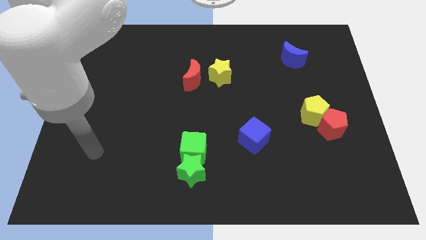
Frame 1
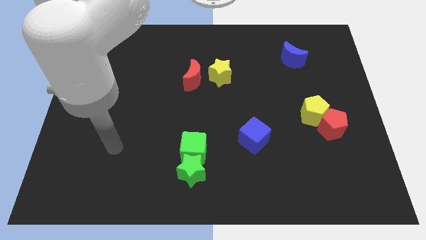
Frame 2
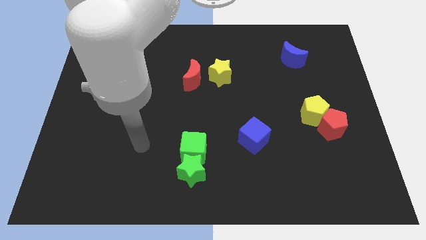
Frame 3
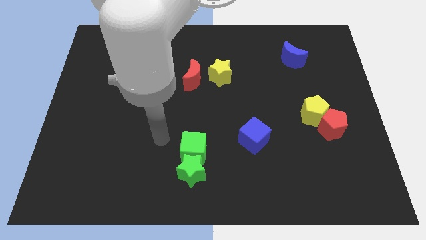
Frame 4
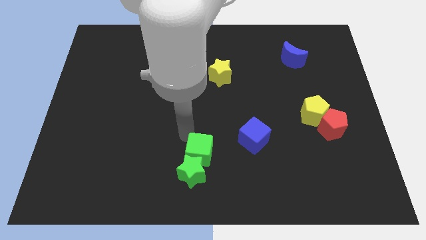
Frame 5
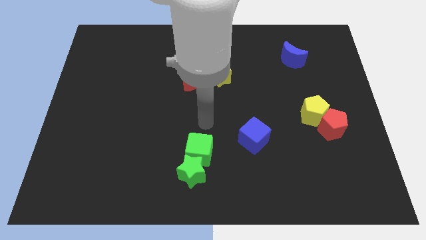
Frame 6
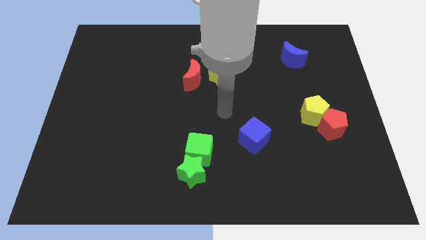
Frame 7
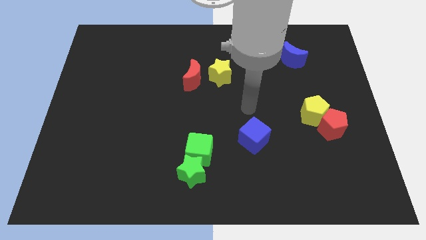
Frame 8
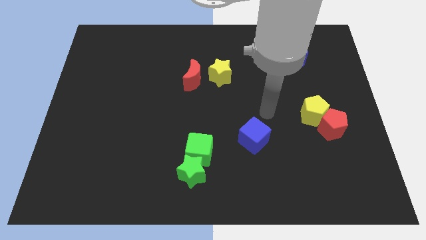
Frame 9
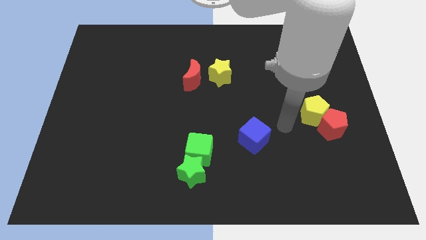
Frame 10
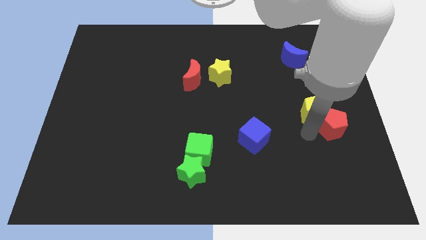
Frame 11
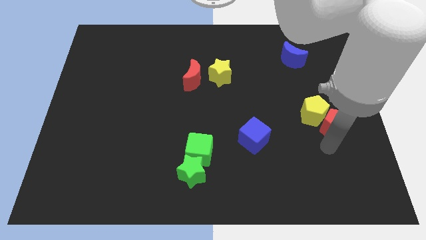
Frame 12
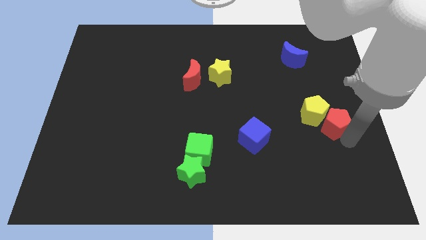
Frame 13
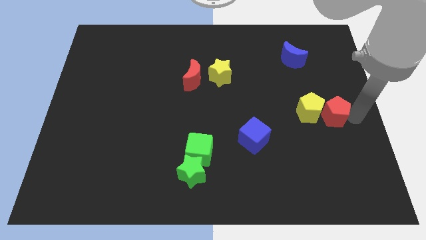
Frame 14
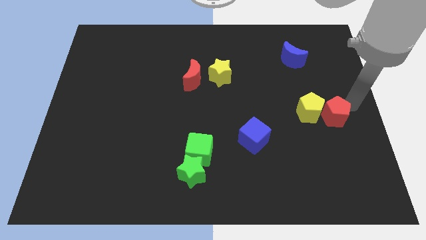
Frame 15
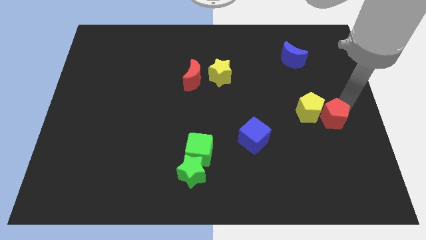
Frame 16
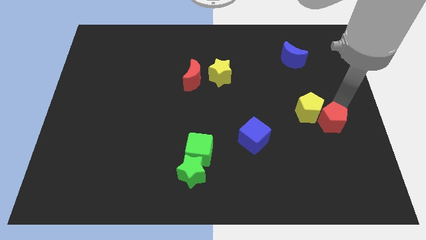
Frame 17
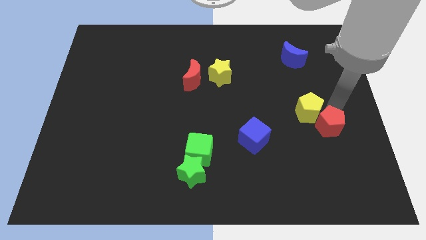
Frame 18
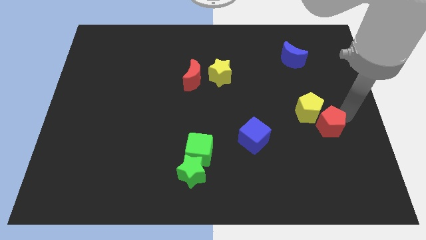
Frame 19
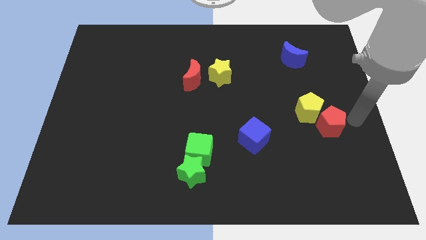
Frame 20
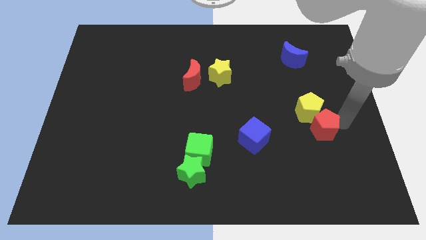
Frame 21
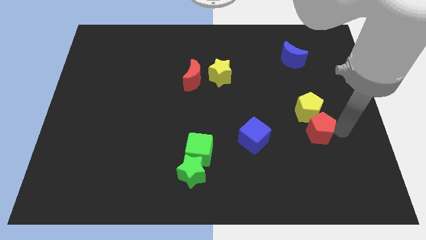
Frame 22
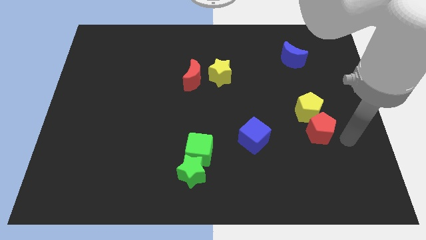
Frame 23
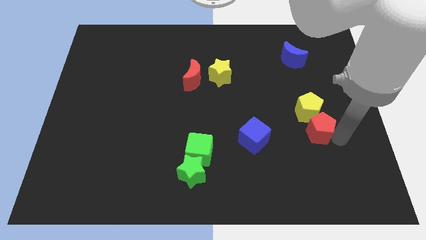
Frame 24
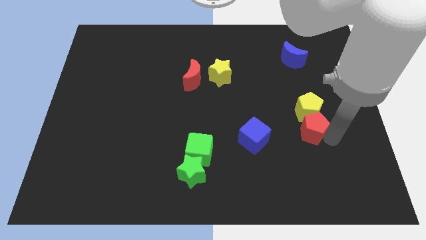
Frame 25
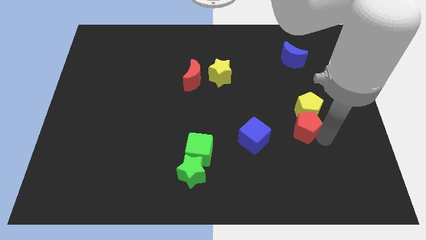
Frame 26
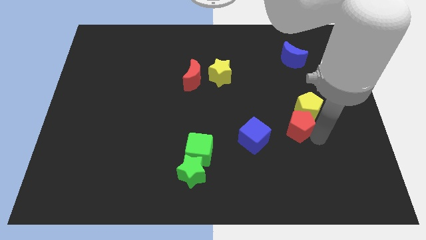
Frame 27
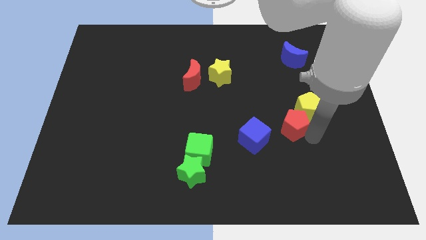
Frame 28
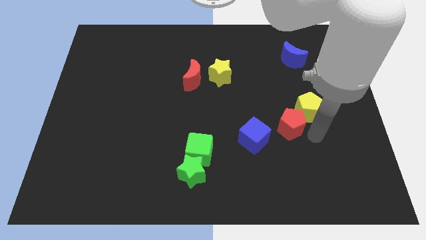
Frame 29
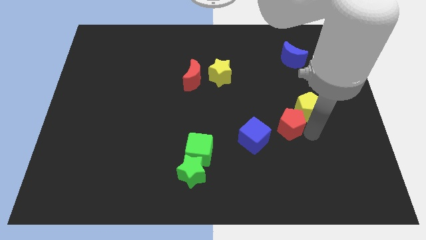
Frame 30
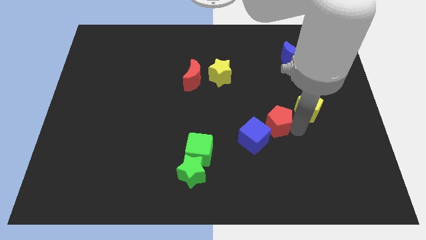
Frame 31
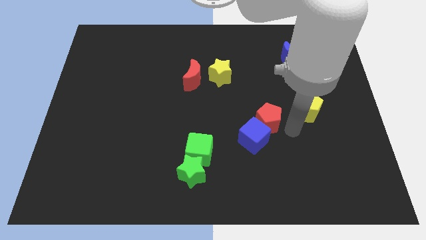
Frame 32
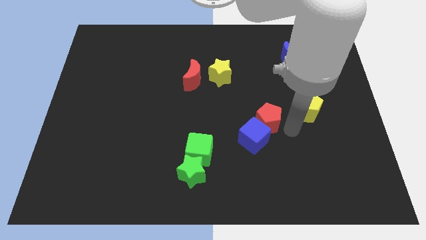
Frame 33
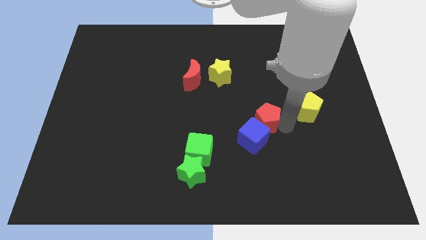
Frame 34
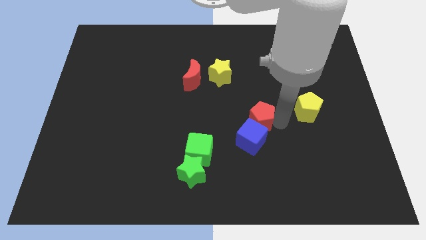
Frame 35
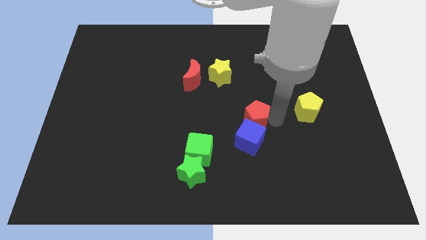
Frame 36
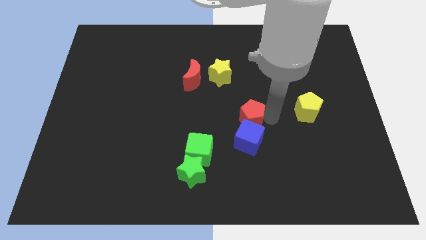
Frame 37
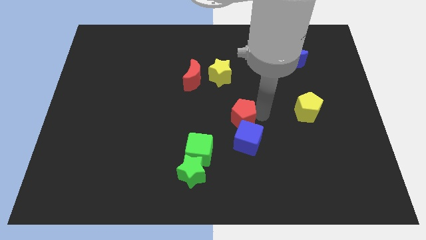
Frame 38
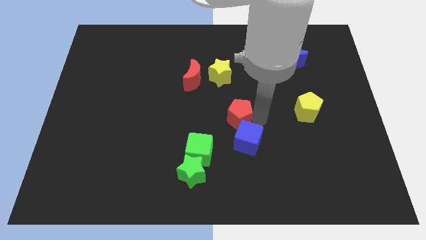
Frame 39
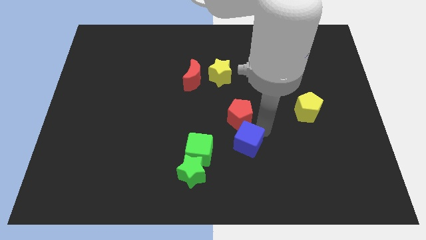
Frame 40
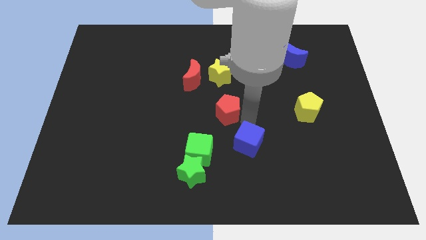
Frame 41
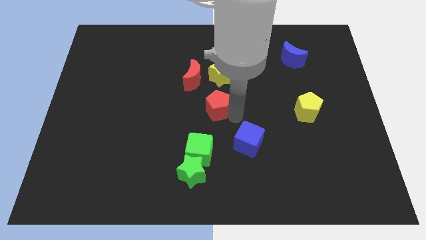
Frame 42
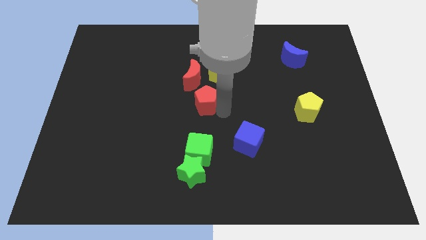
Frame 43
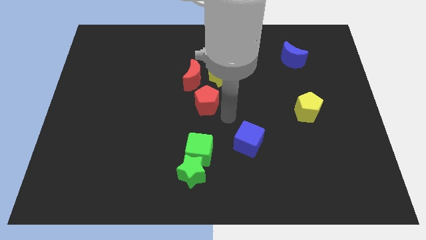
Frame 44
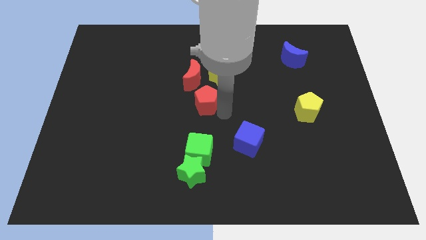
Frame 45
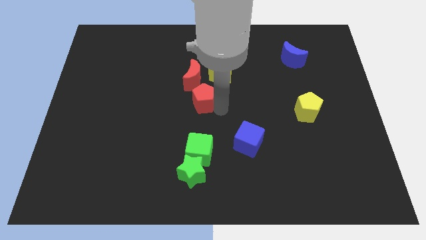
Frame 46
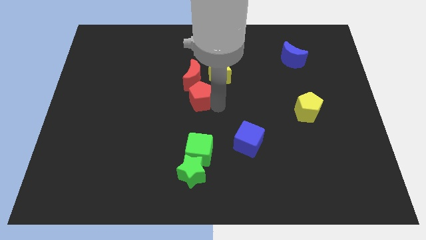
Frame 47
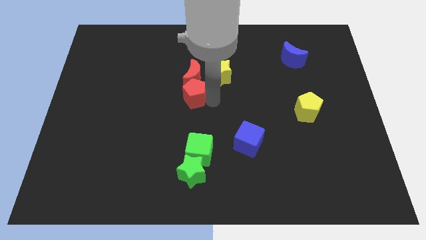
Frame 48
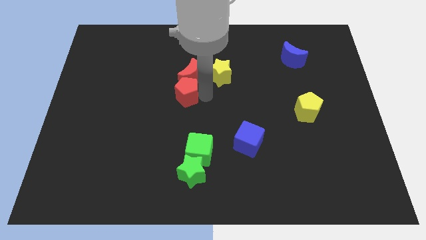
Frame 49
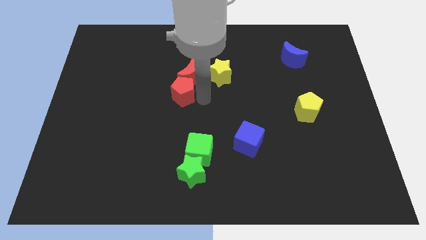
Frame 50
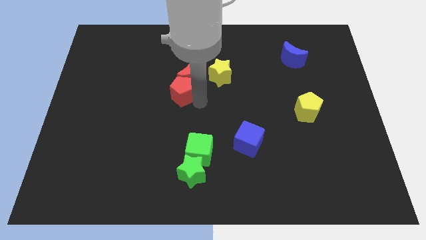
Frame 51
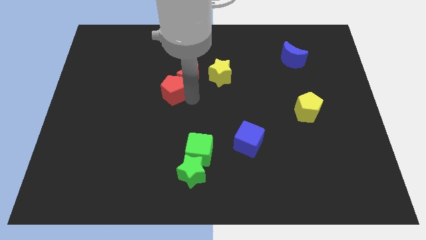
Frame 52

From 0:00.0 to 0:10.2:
slide the red pentagon to the left of the red moon

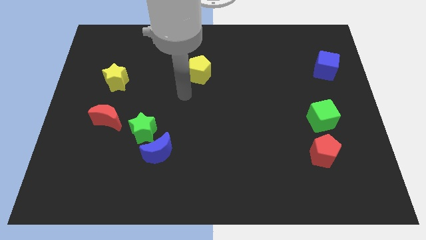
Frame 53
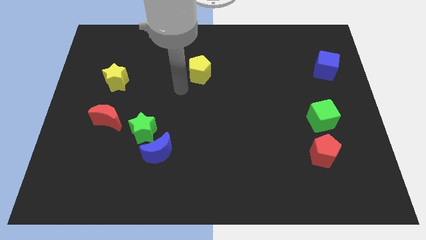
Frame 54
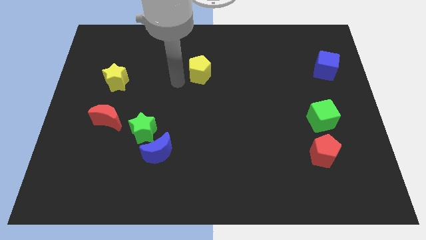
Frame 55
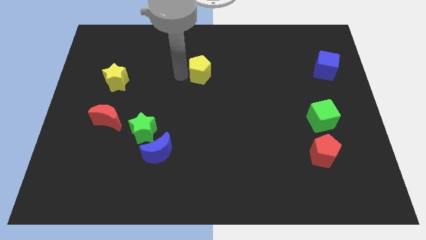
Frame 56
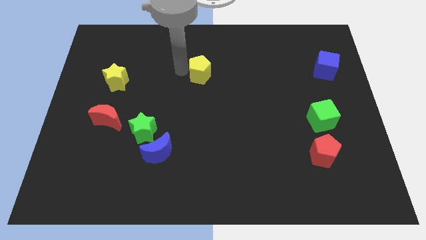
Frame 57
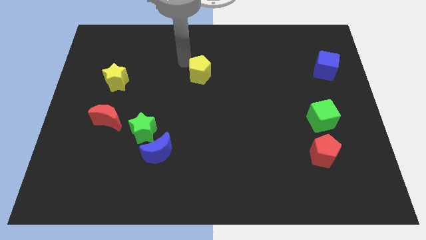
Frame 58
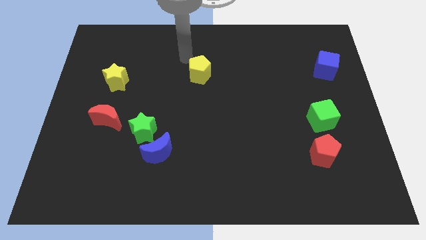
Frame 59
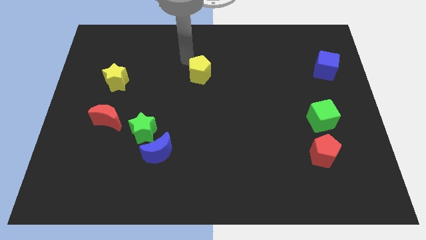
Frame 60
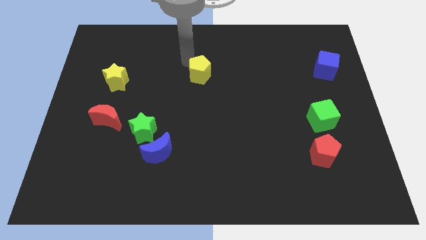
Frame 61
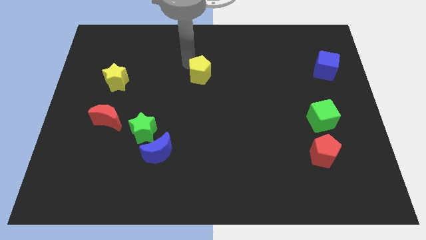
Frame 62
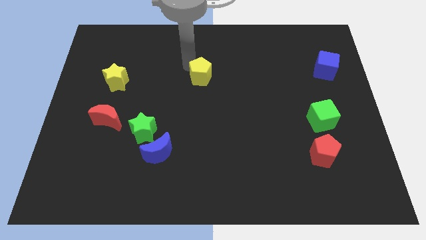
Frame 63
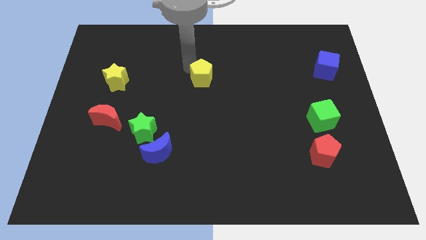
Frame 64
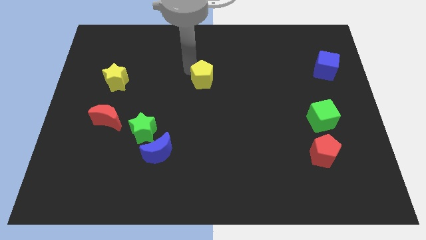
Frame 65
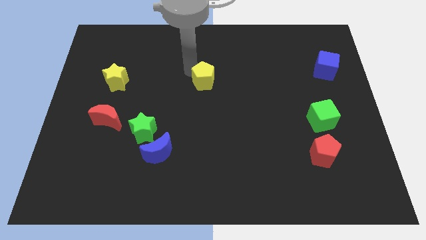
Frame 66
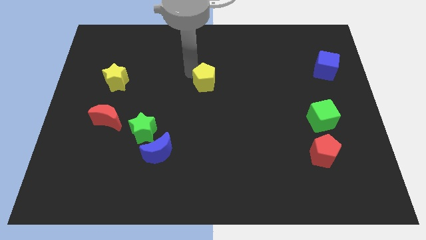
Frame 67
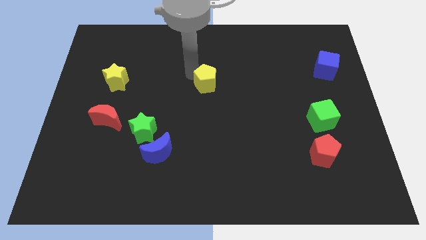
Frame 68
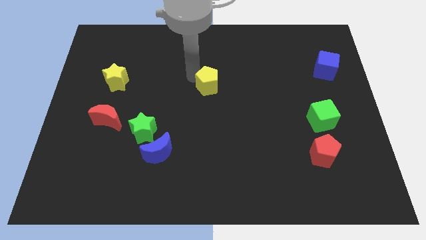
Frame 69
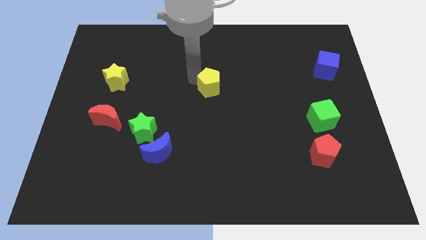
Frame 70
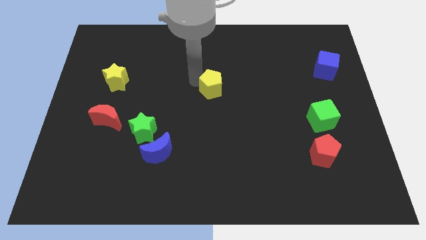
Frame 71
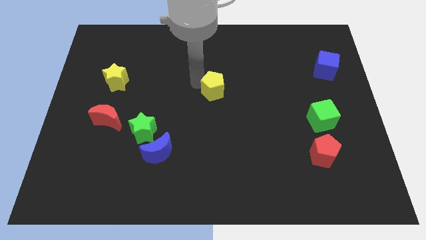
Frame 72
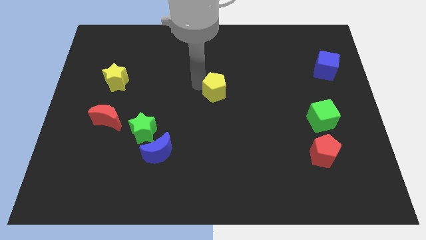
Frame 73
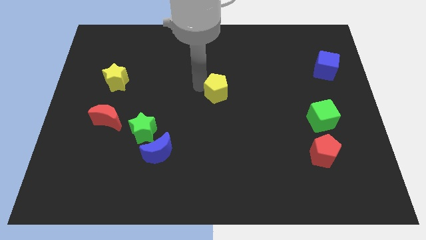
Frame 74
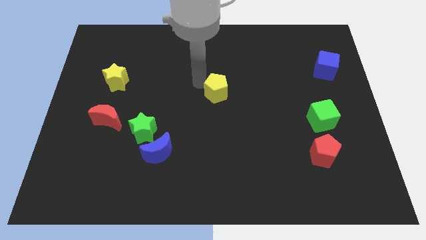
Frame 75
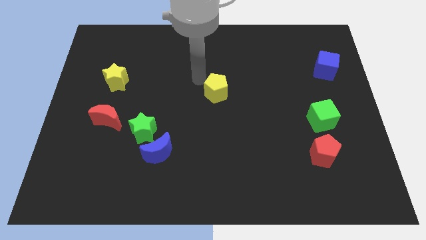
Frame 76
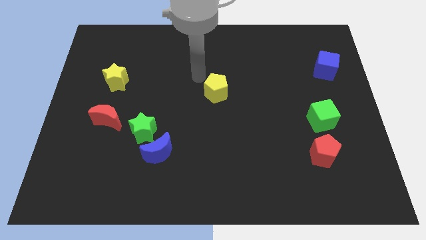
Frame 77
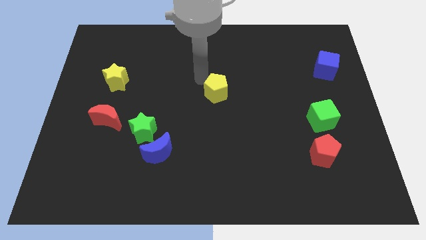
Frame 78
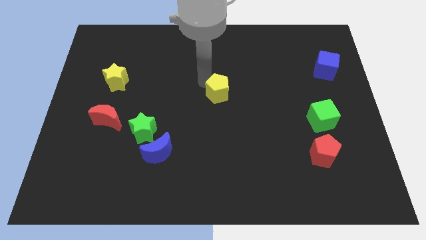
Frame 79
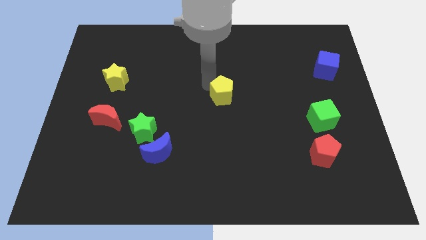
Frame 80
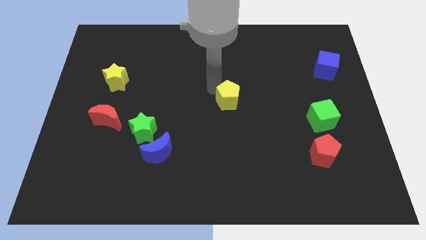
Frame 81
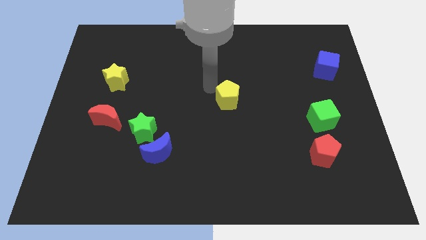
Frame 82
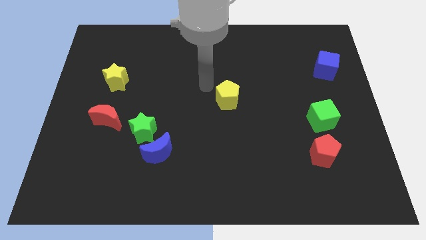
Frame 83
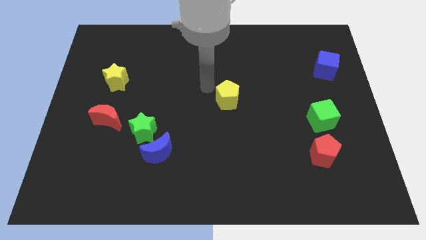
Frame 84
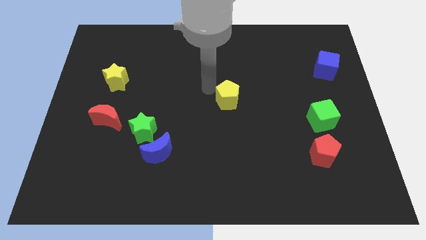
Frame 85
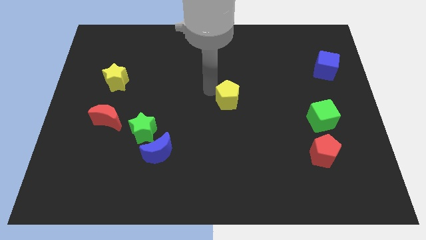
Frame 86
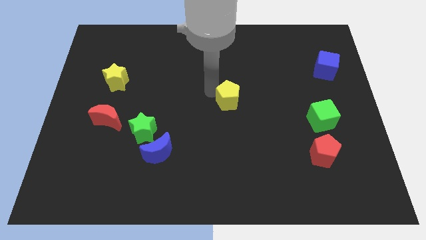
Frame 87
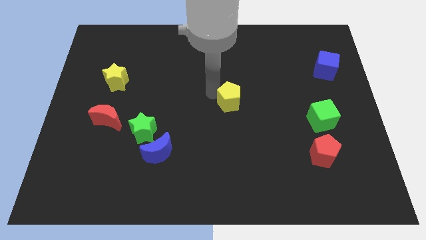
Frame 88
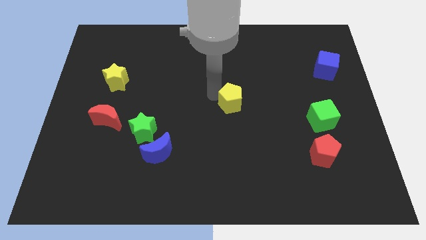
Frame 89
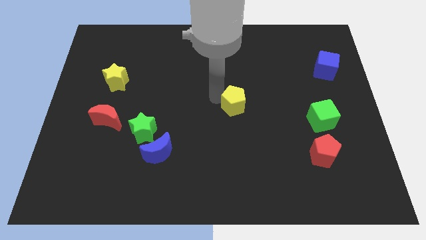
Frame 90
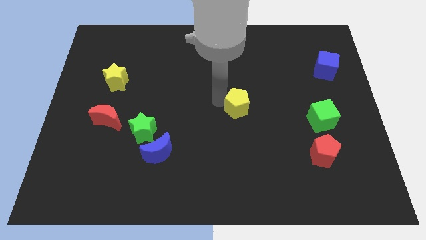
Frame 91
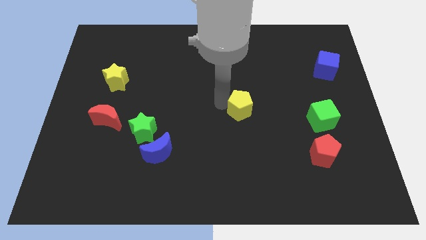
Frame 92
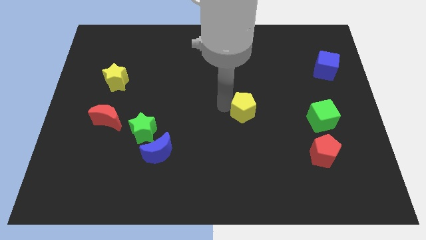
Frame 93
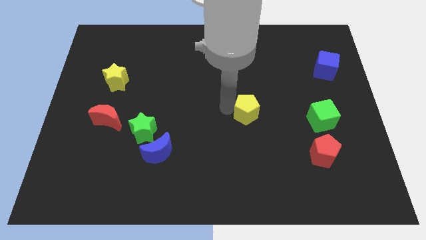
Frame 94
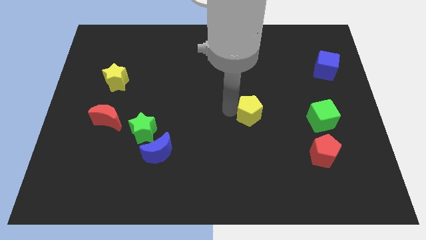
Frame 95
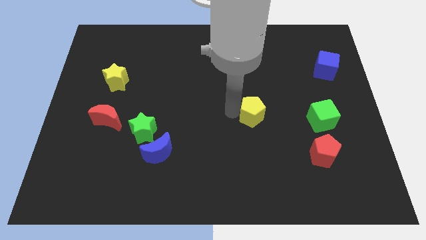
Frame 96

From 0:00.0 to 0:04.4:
push the yellow pentagon just left of the green cube
